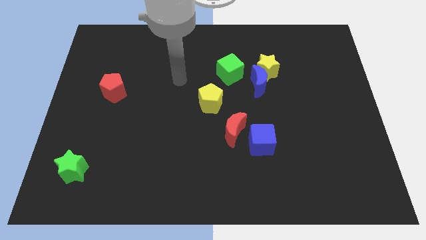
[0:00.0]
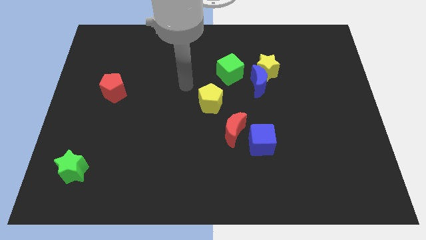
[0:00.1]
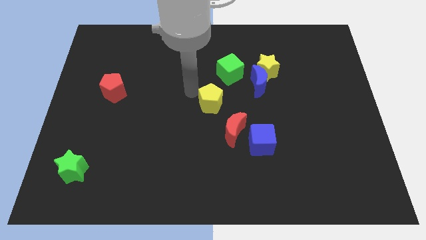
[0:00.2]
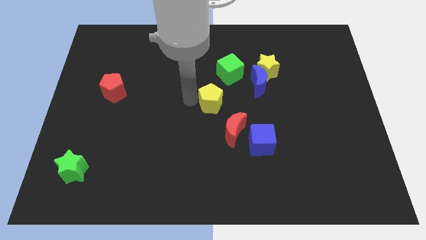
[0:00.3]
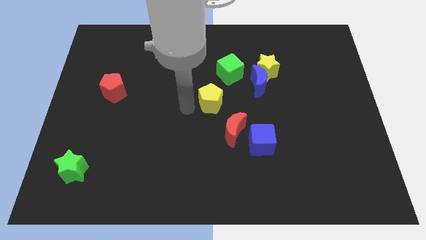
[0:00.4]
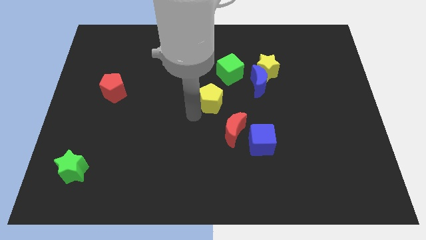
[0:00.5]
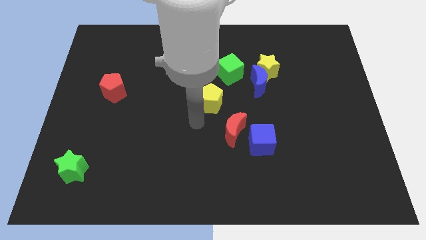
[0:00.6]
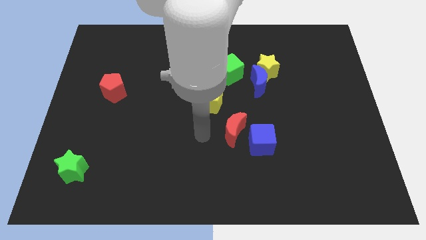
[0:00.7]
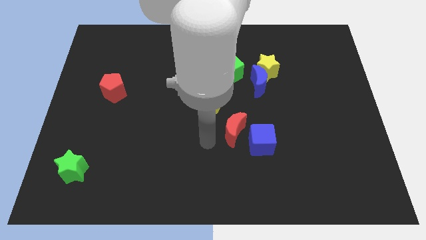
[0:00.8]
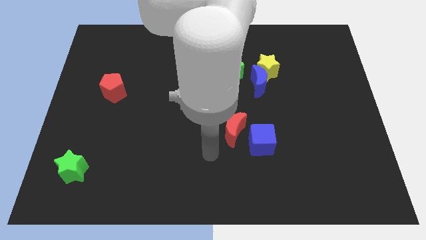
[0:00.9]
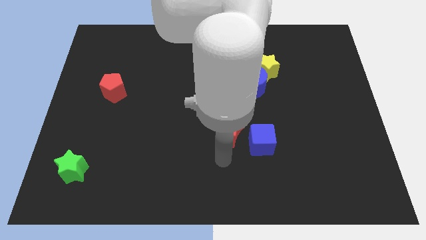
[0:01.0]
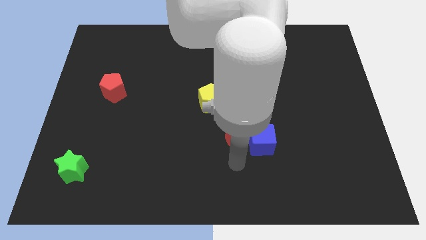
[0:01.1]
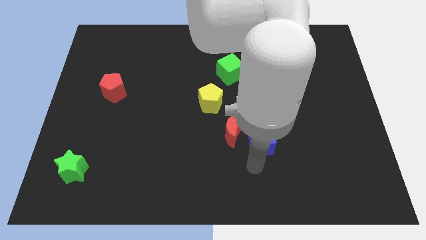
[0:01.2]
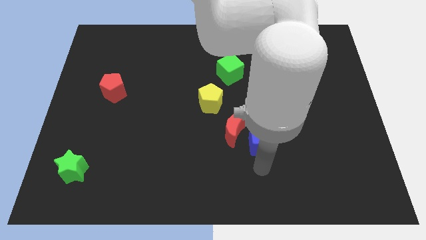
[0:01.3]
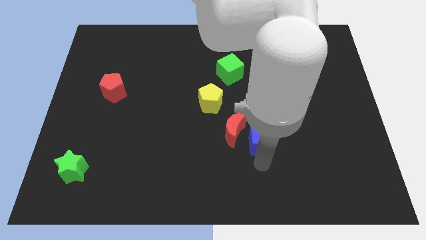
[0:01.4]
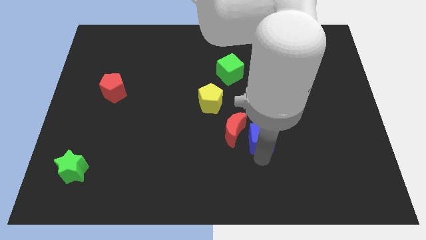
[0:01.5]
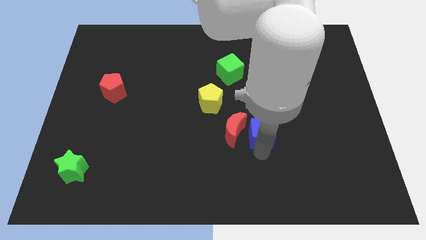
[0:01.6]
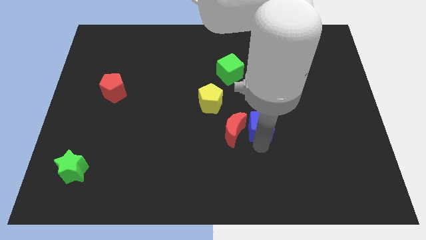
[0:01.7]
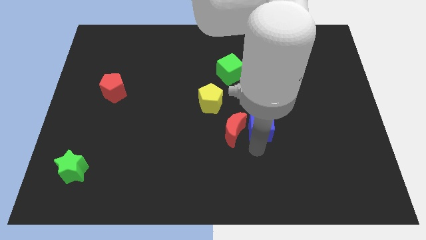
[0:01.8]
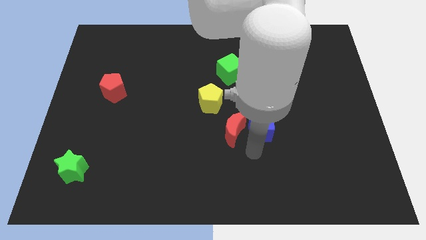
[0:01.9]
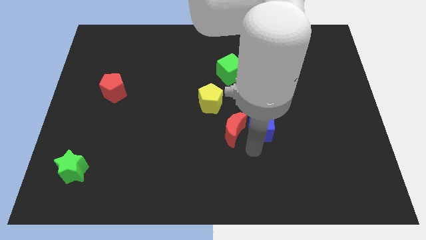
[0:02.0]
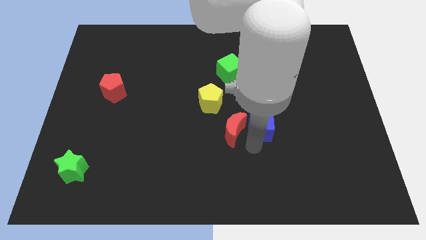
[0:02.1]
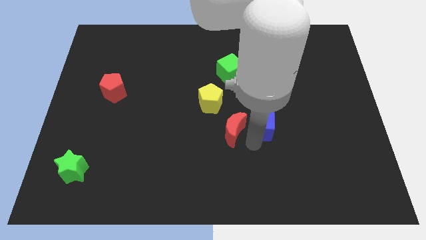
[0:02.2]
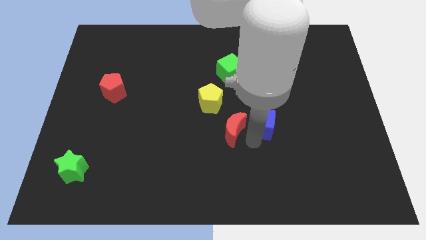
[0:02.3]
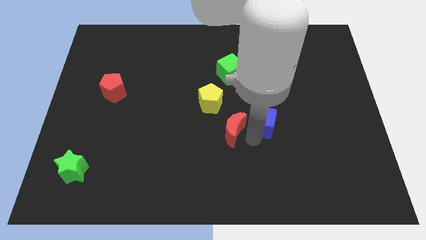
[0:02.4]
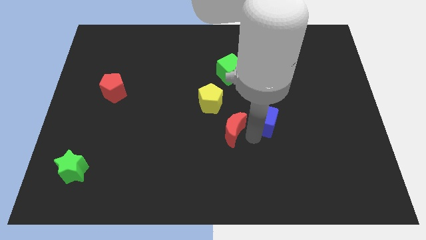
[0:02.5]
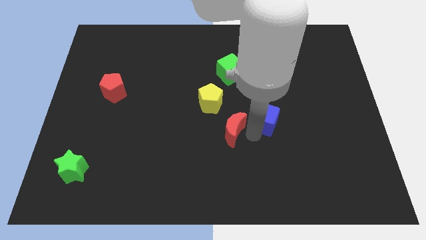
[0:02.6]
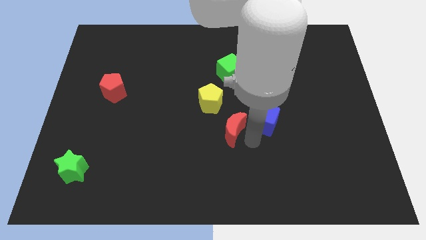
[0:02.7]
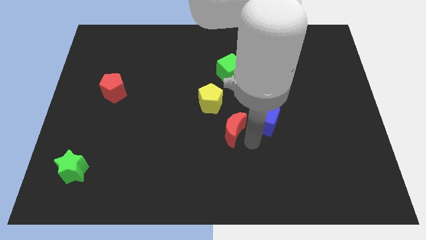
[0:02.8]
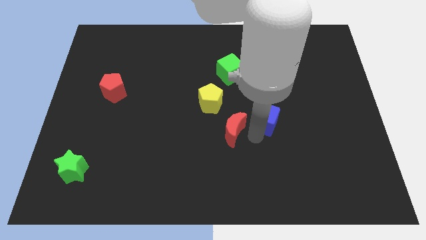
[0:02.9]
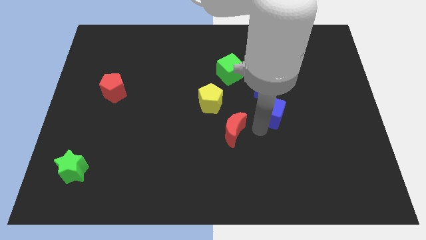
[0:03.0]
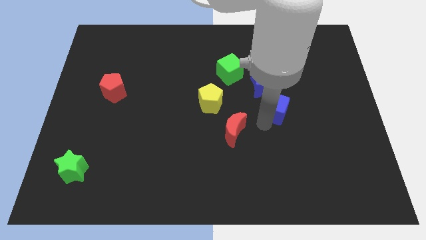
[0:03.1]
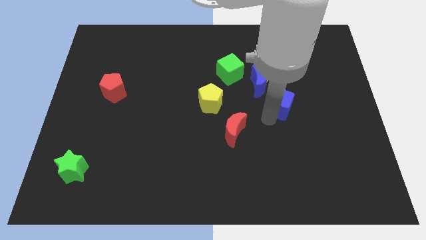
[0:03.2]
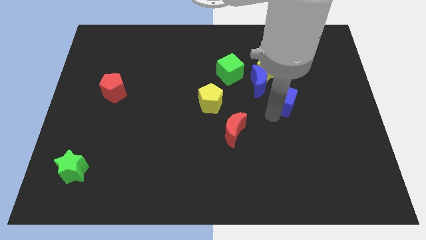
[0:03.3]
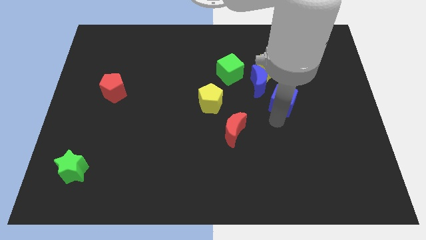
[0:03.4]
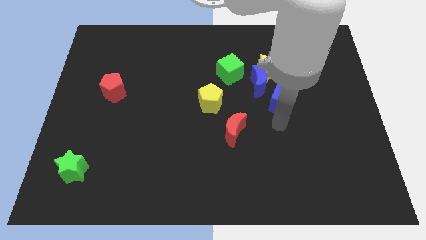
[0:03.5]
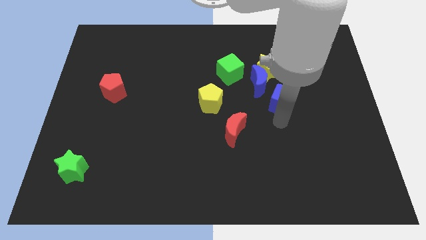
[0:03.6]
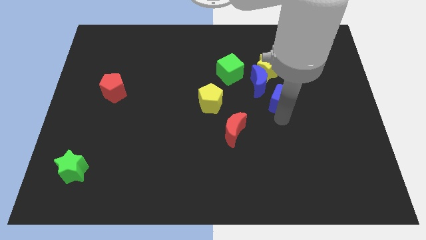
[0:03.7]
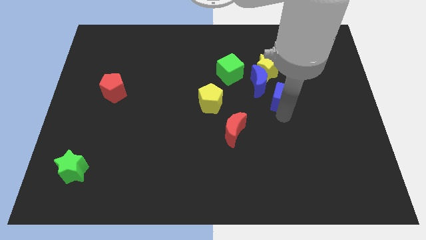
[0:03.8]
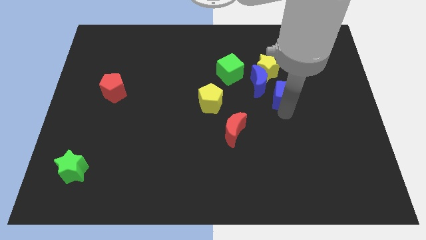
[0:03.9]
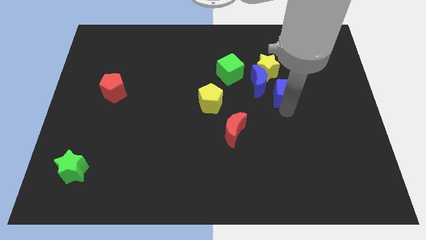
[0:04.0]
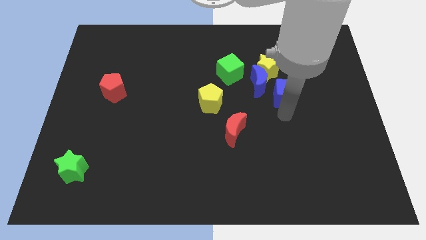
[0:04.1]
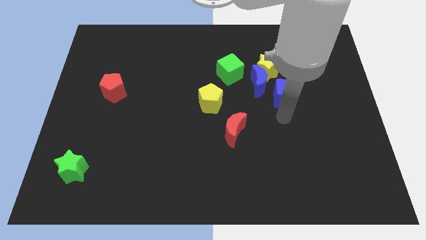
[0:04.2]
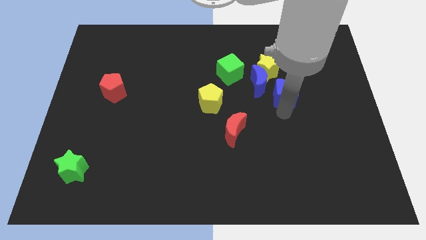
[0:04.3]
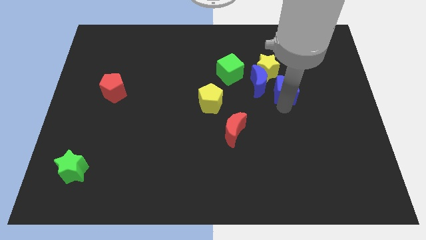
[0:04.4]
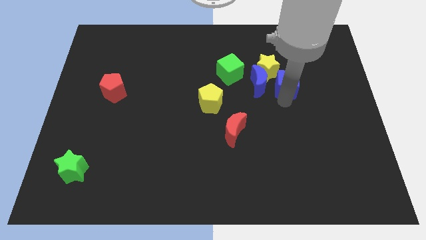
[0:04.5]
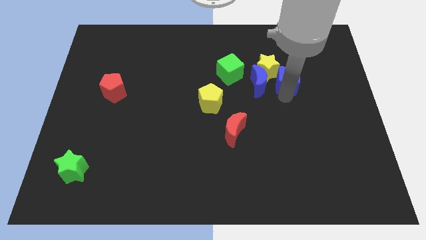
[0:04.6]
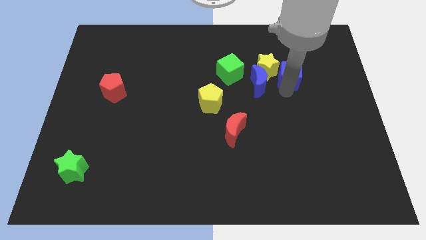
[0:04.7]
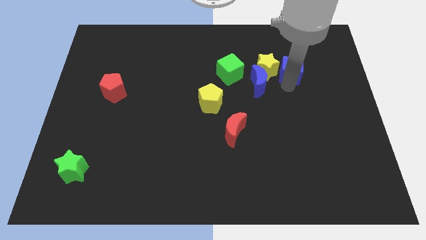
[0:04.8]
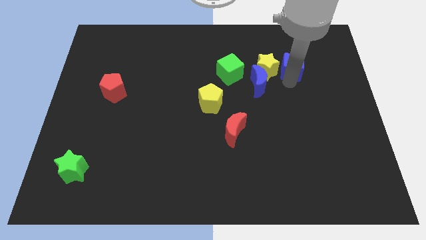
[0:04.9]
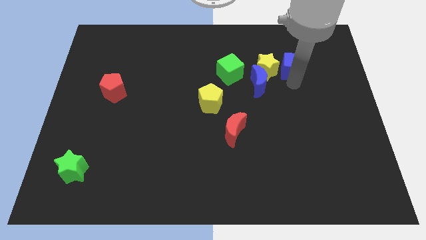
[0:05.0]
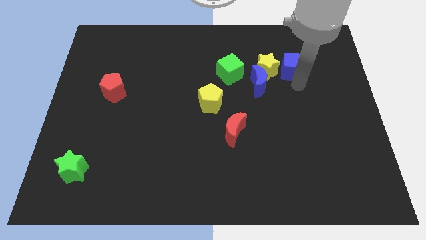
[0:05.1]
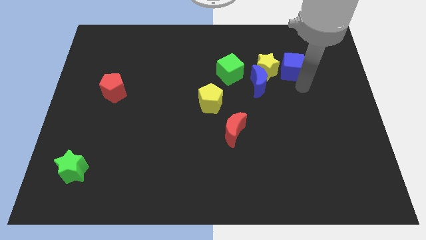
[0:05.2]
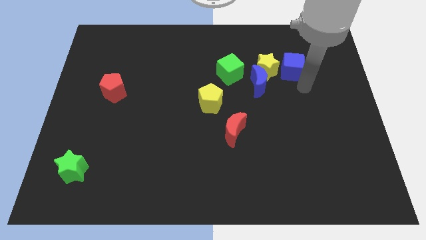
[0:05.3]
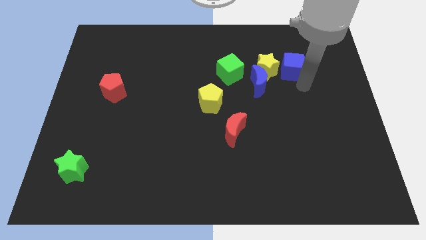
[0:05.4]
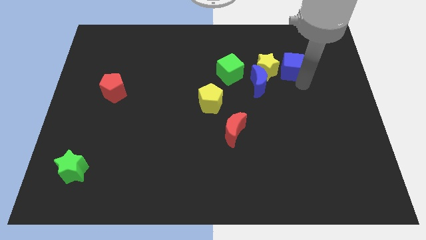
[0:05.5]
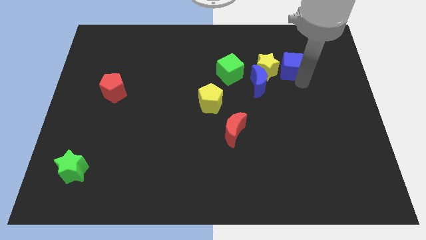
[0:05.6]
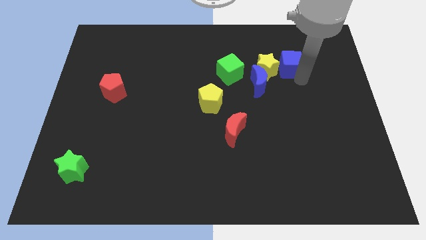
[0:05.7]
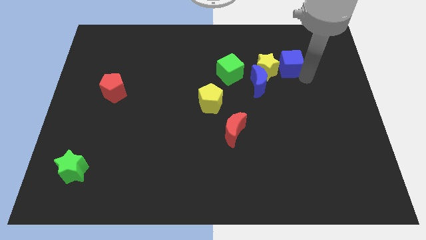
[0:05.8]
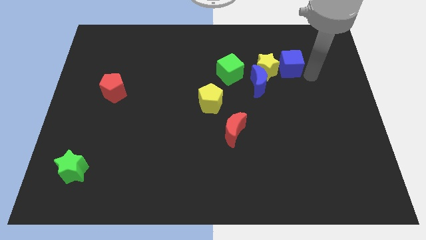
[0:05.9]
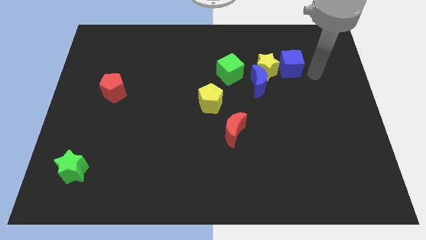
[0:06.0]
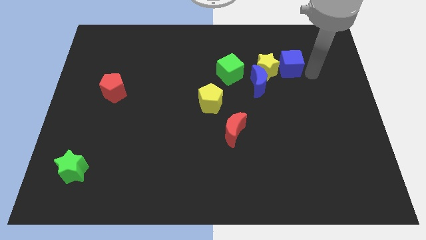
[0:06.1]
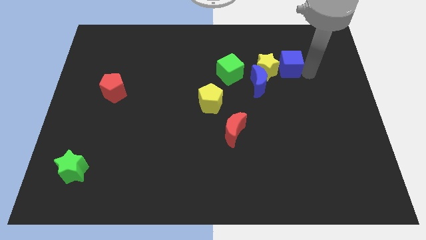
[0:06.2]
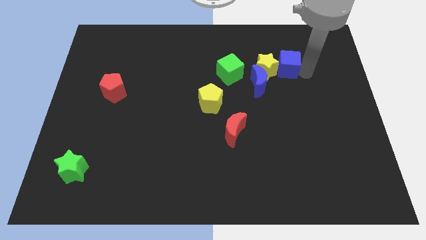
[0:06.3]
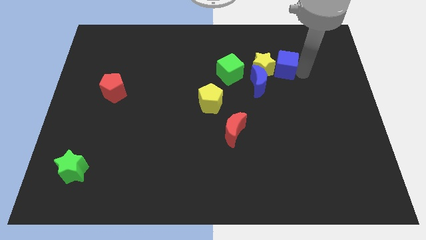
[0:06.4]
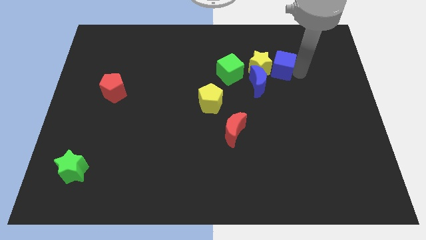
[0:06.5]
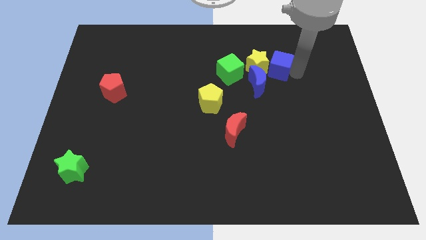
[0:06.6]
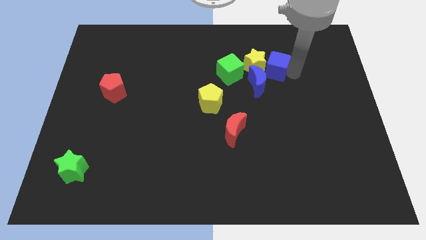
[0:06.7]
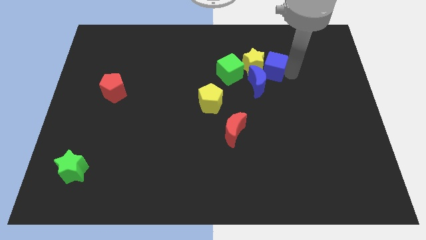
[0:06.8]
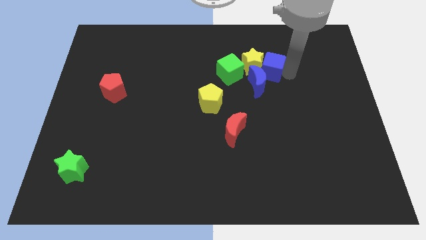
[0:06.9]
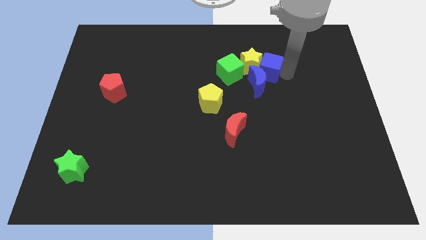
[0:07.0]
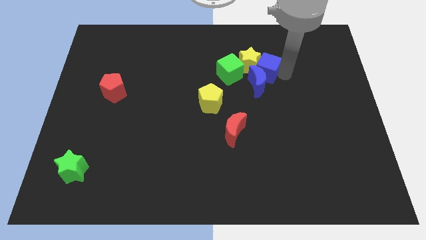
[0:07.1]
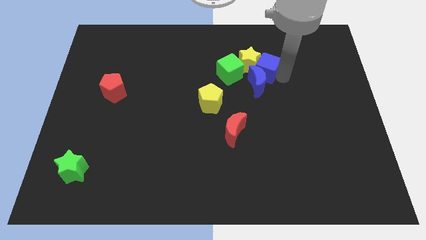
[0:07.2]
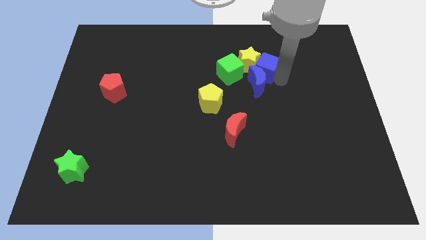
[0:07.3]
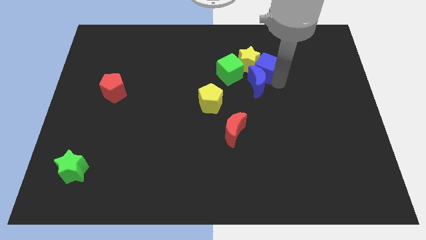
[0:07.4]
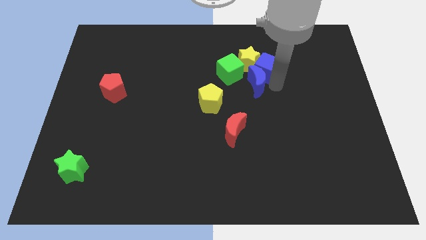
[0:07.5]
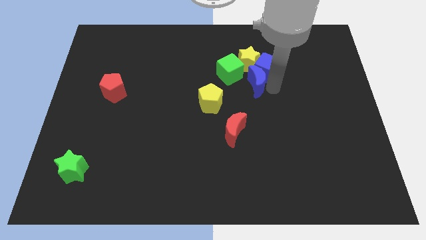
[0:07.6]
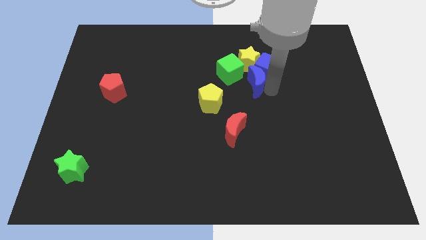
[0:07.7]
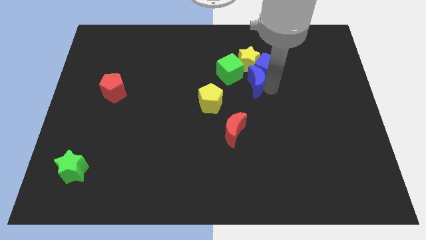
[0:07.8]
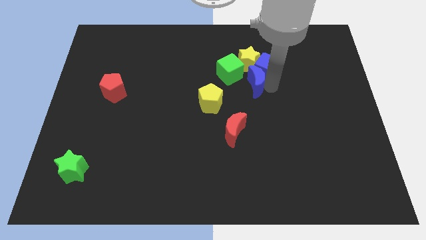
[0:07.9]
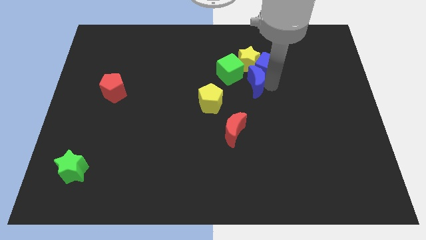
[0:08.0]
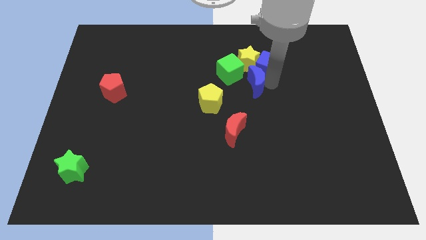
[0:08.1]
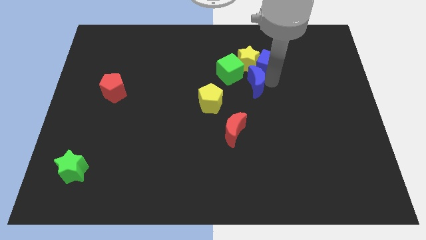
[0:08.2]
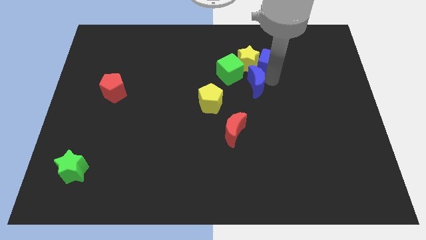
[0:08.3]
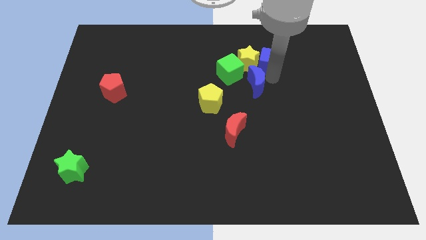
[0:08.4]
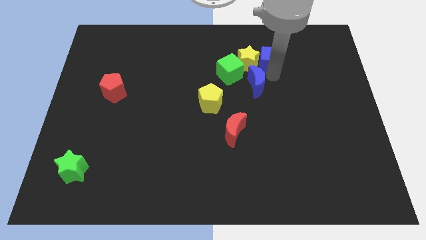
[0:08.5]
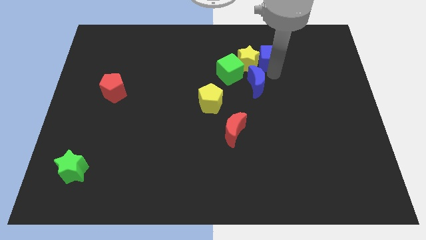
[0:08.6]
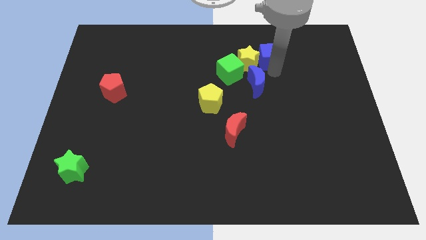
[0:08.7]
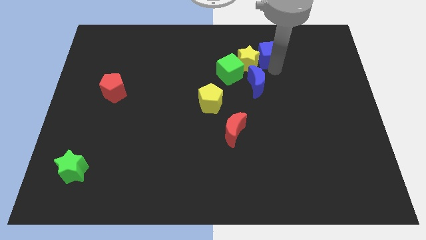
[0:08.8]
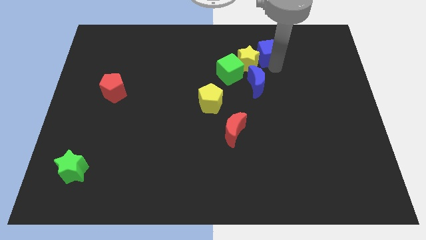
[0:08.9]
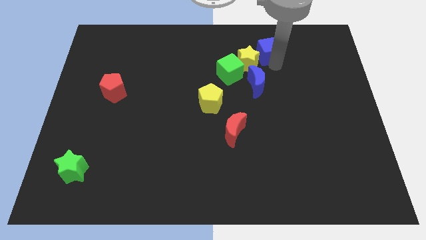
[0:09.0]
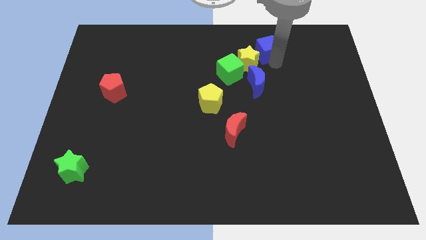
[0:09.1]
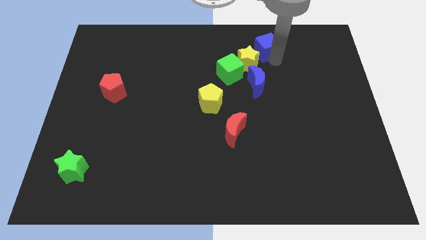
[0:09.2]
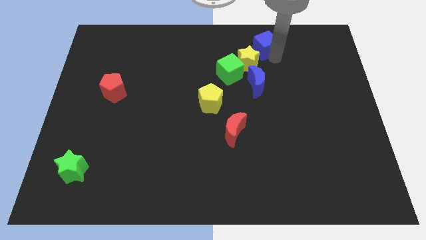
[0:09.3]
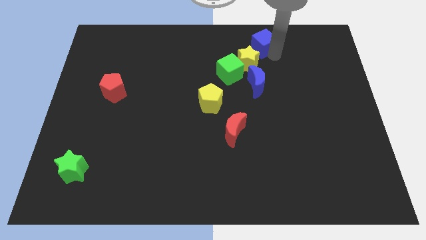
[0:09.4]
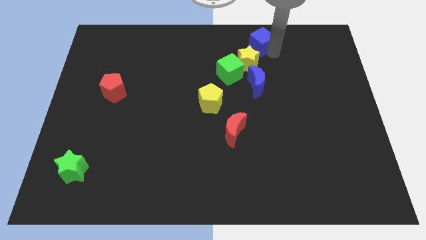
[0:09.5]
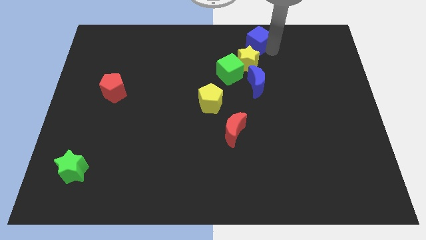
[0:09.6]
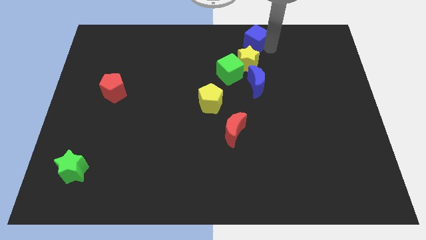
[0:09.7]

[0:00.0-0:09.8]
move the blue cube to the top side
